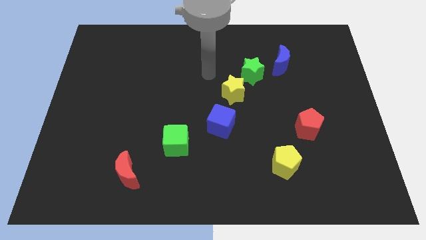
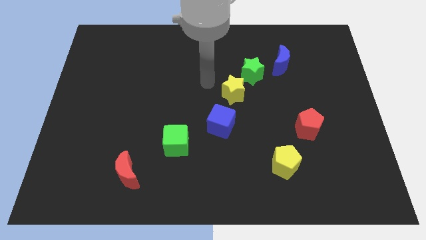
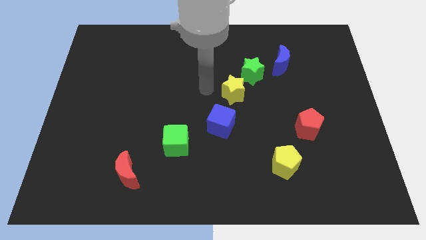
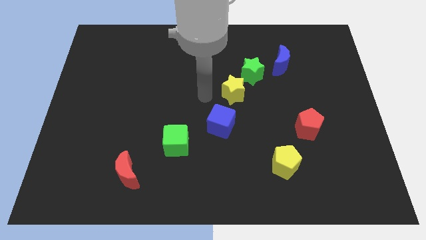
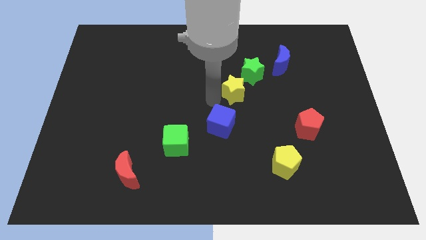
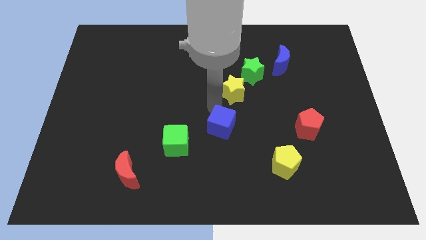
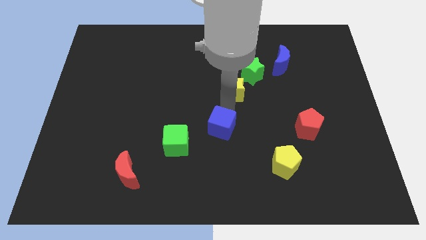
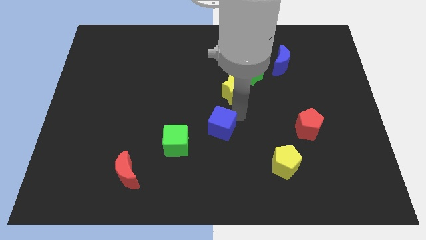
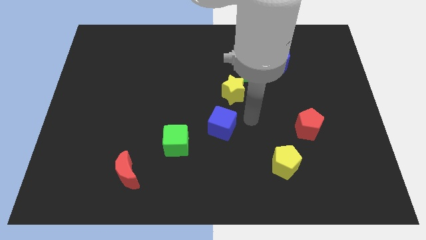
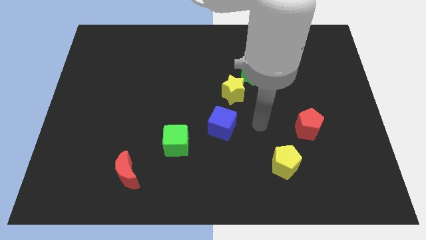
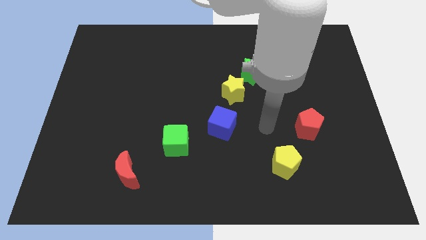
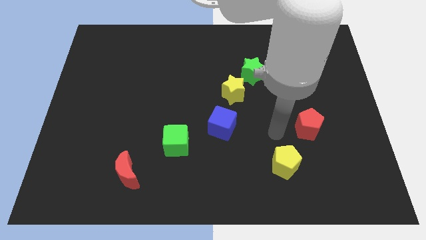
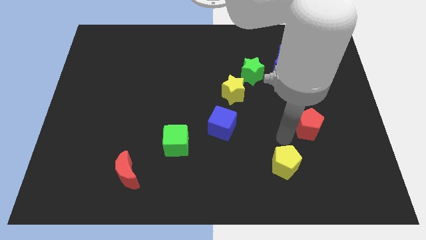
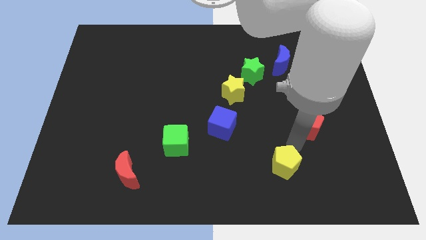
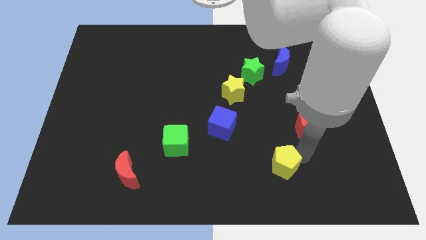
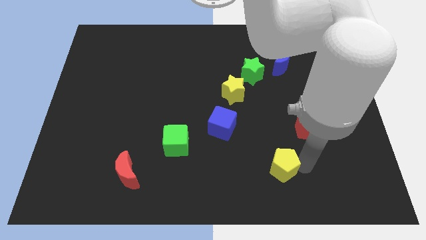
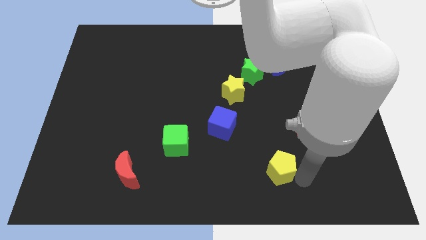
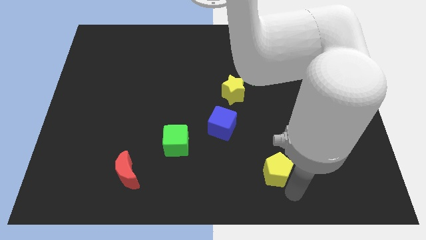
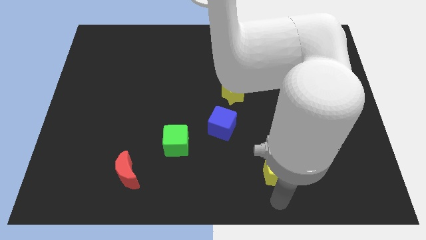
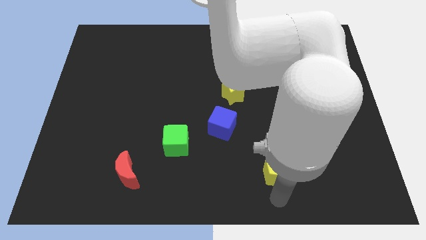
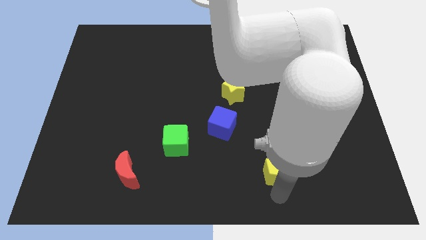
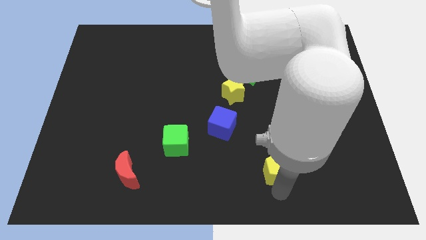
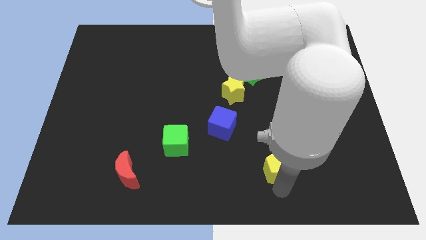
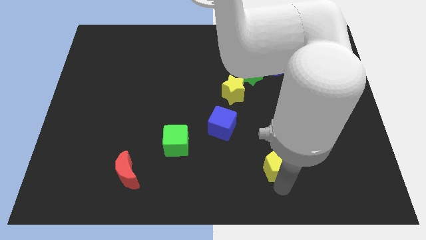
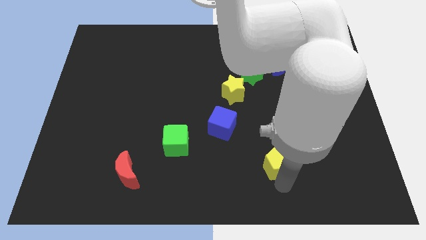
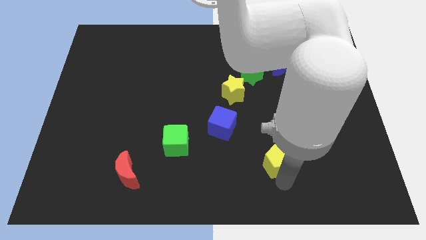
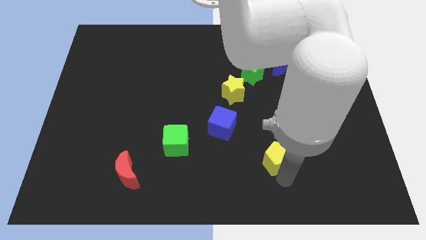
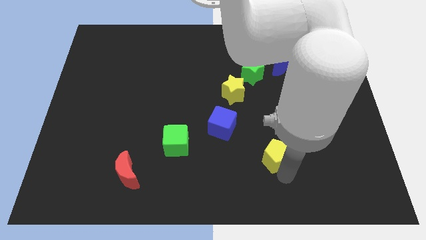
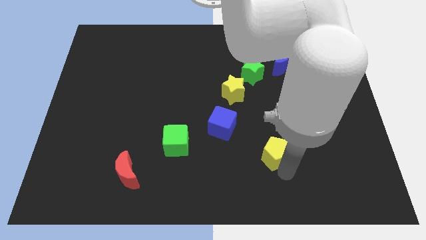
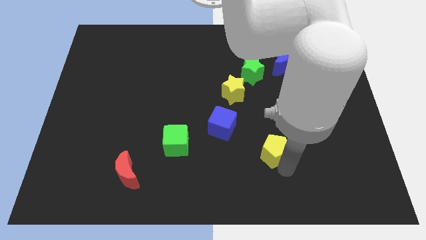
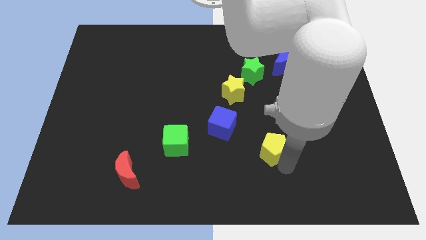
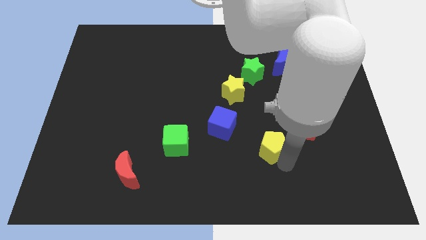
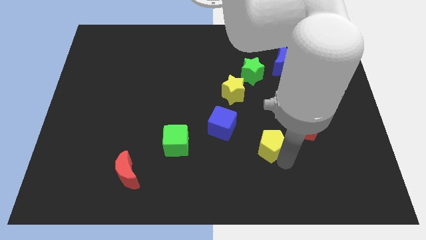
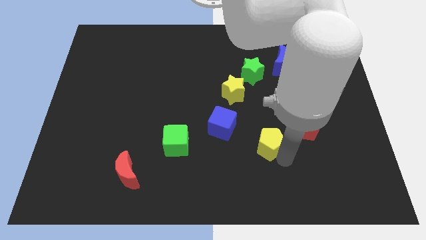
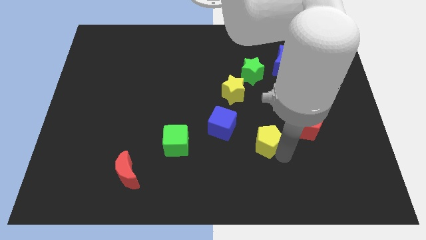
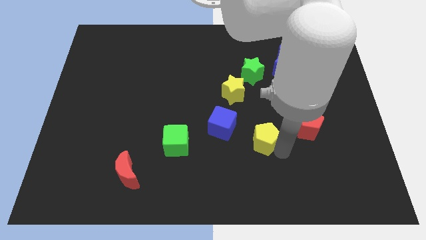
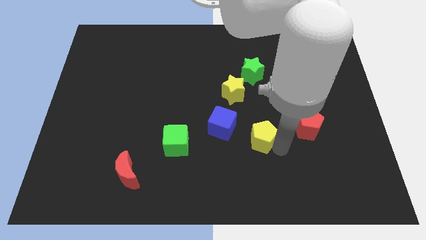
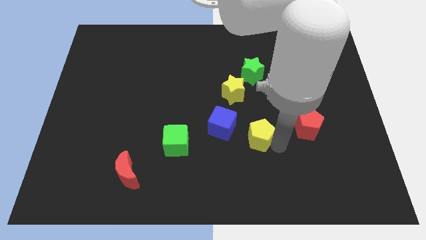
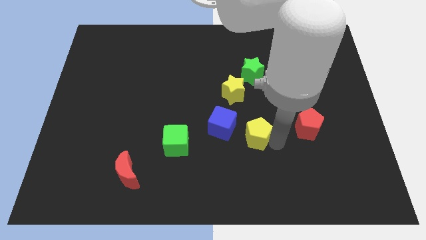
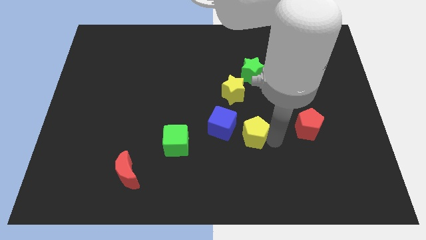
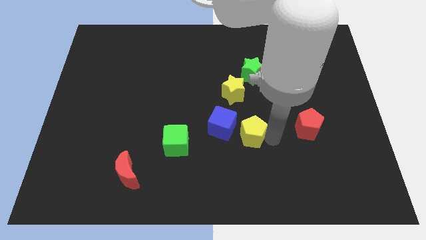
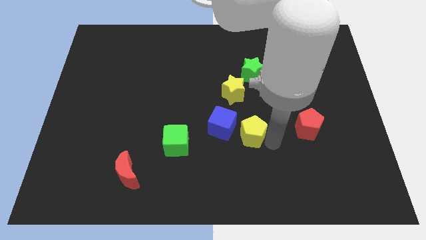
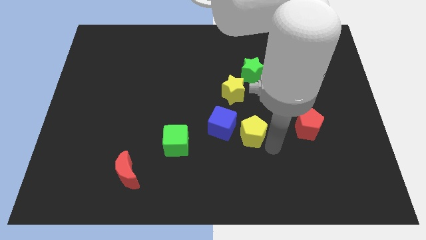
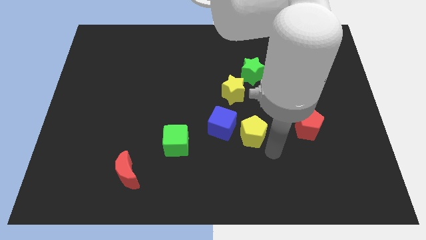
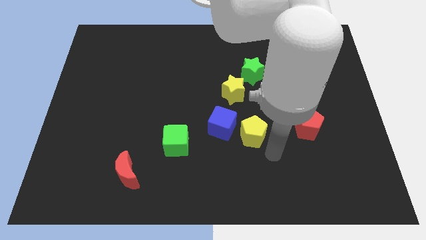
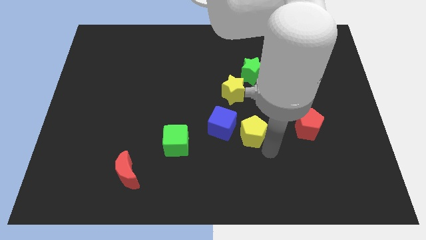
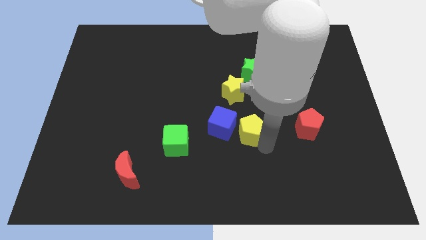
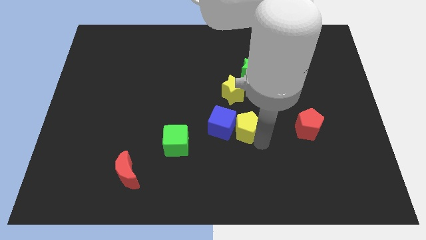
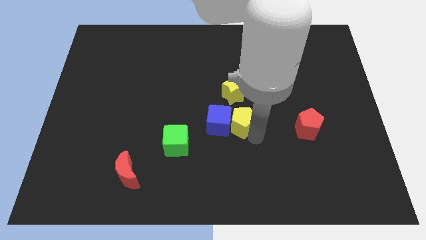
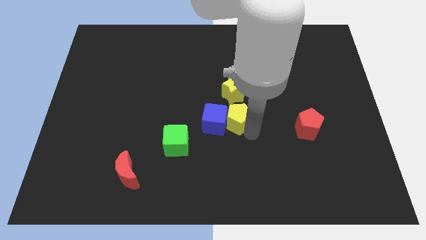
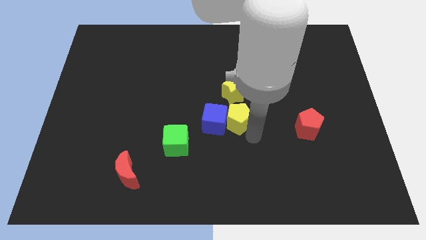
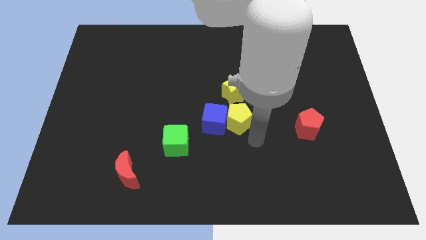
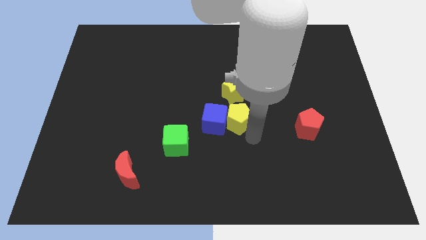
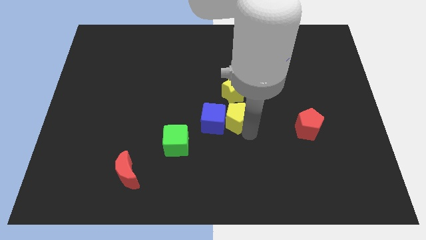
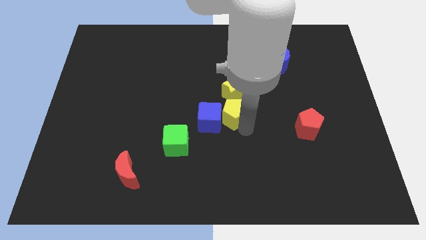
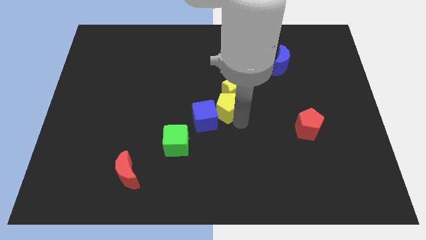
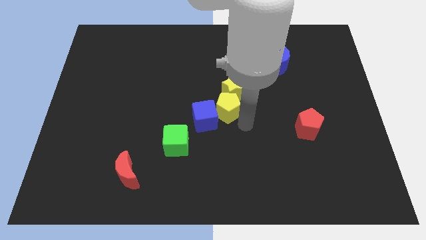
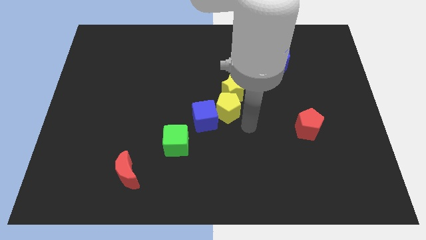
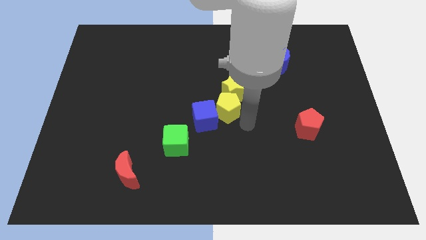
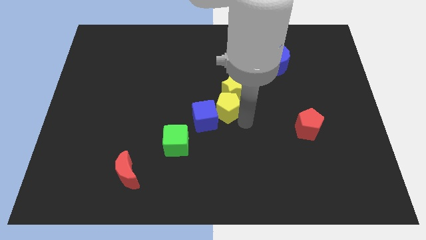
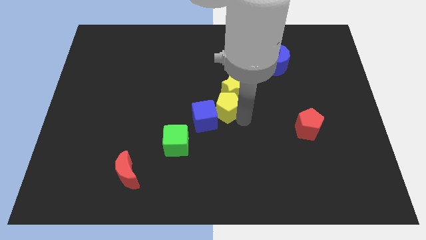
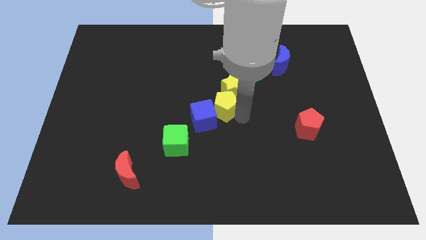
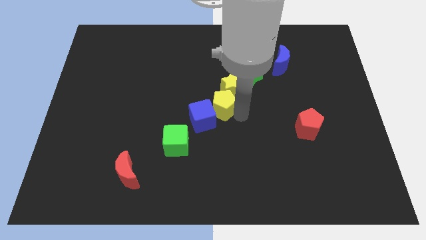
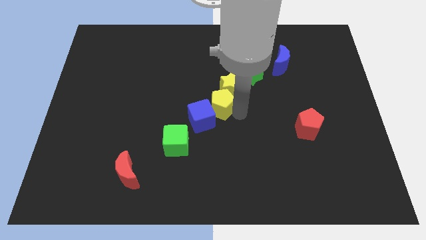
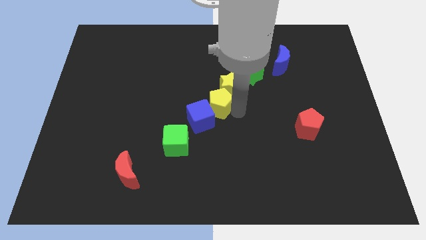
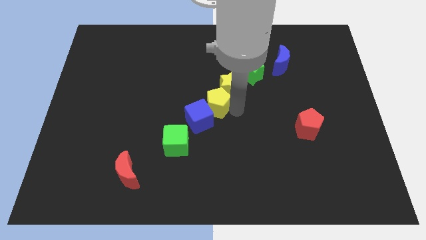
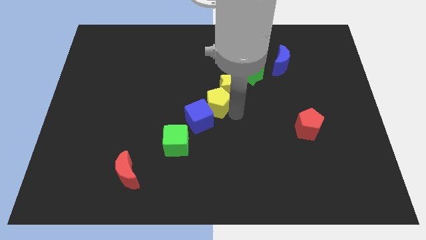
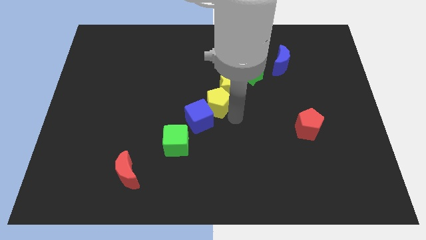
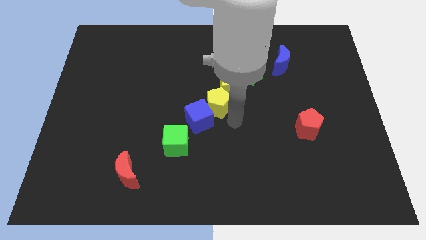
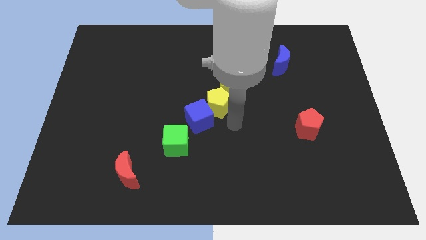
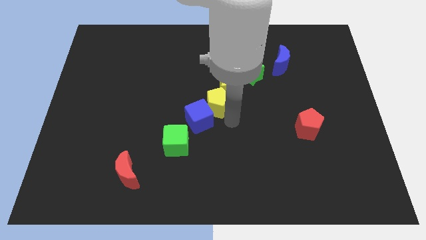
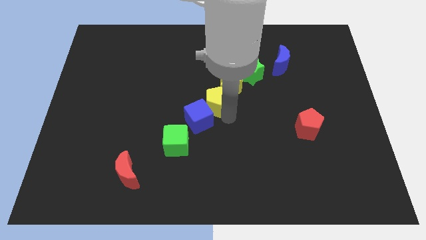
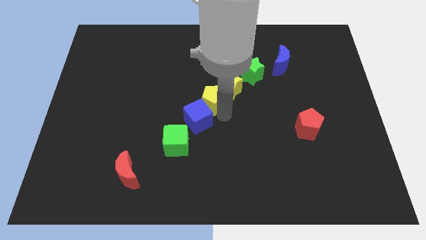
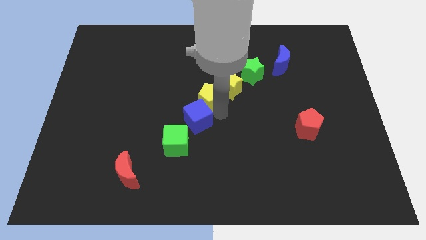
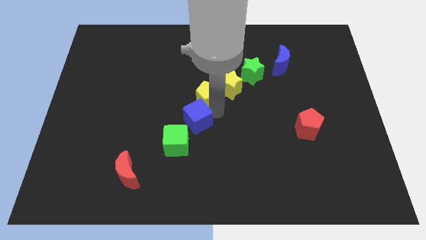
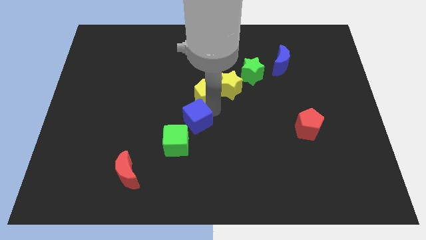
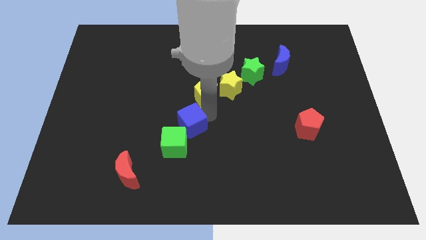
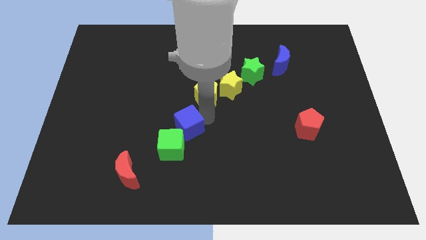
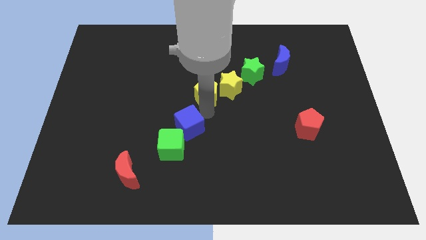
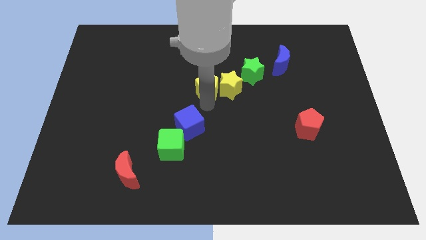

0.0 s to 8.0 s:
move the yellow pentagon to the top left side of the yellow star
